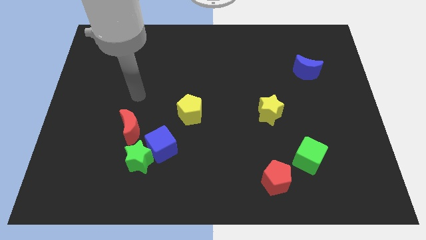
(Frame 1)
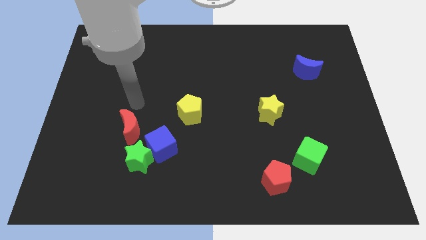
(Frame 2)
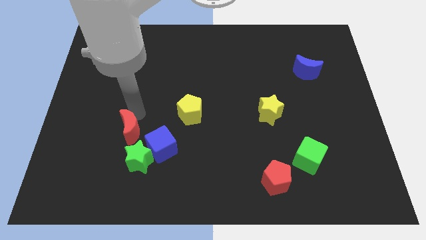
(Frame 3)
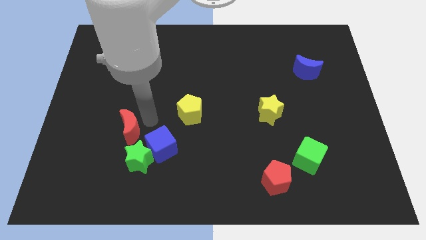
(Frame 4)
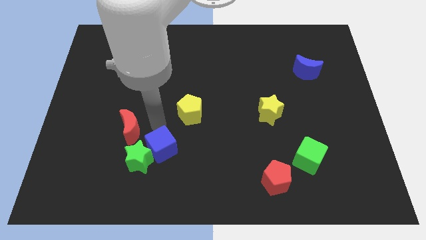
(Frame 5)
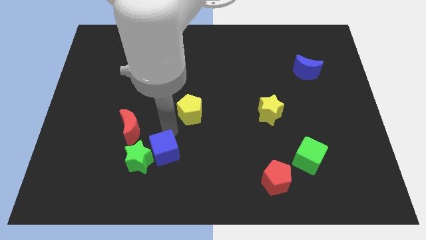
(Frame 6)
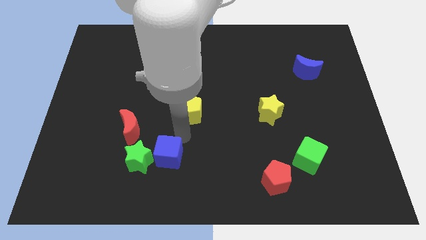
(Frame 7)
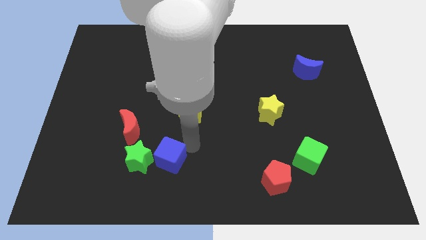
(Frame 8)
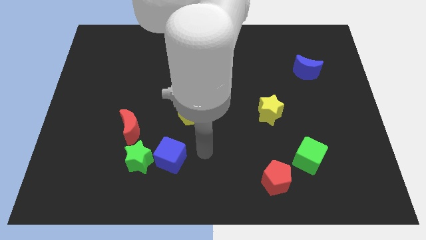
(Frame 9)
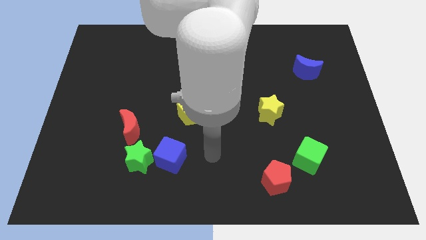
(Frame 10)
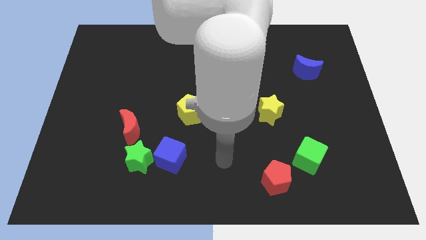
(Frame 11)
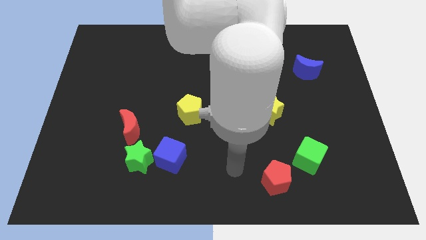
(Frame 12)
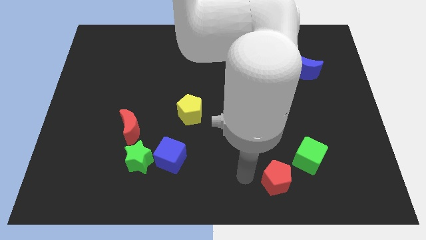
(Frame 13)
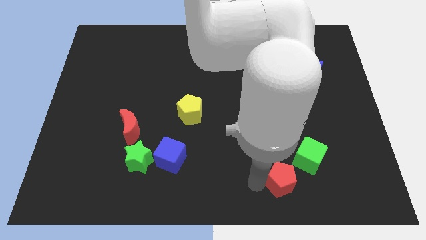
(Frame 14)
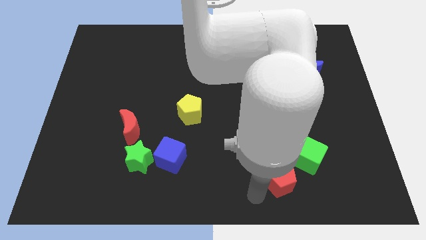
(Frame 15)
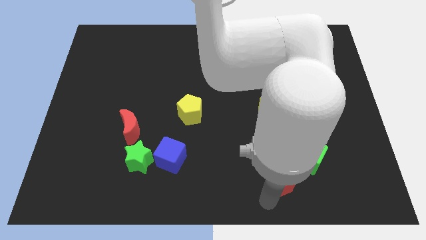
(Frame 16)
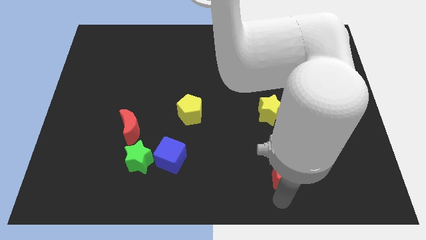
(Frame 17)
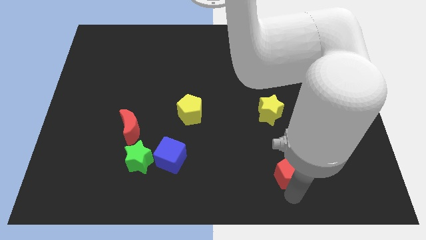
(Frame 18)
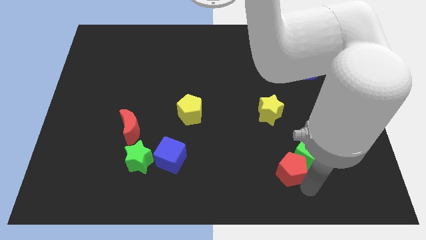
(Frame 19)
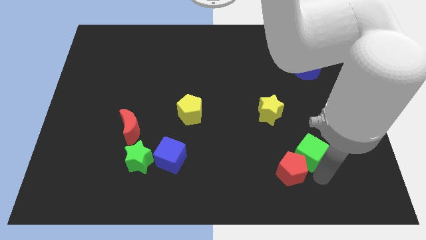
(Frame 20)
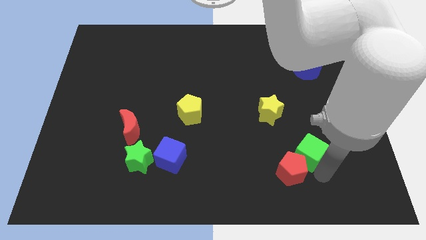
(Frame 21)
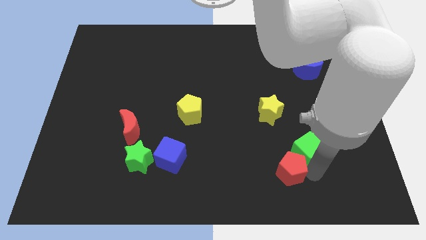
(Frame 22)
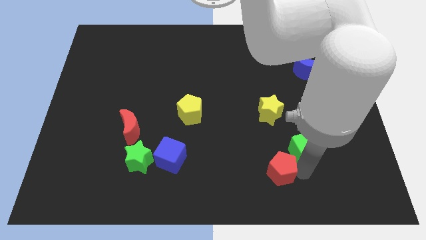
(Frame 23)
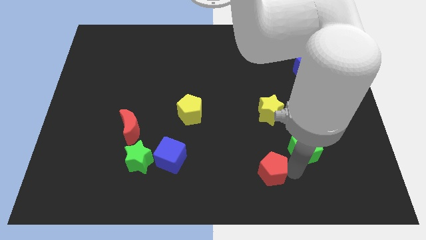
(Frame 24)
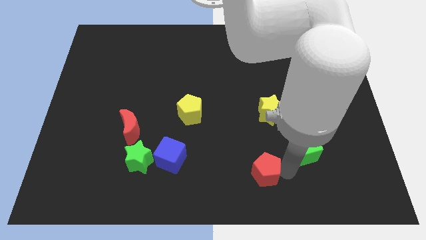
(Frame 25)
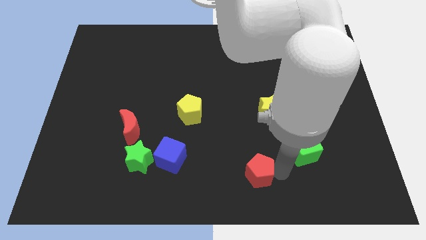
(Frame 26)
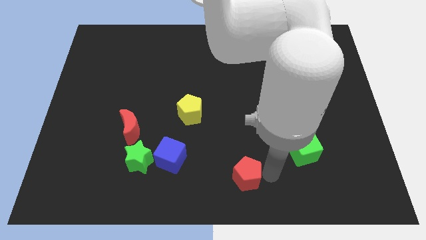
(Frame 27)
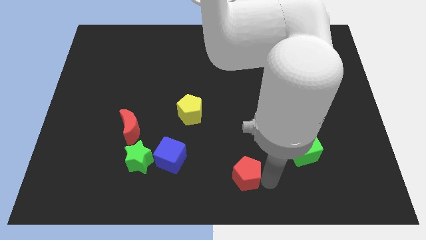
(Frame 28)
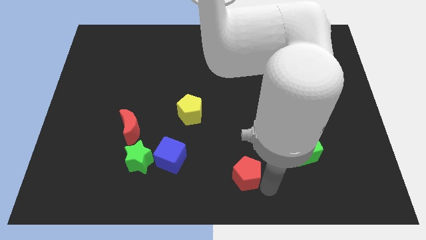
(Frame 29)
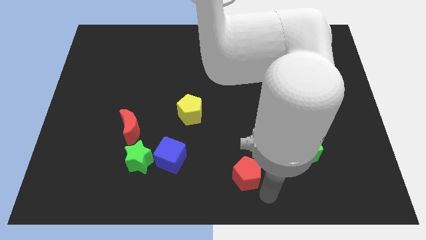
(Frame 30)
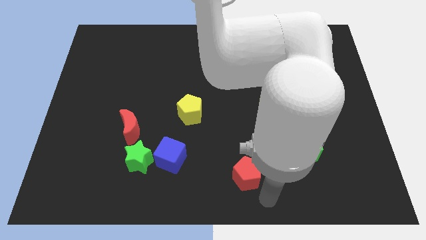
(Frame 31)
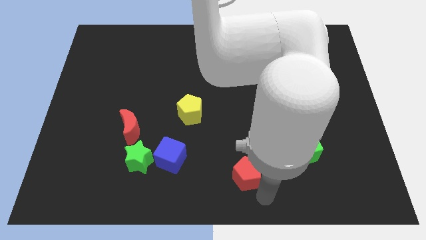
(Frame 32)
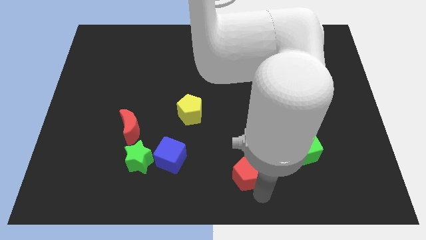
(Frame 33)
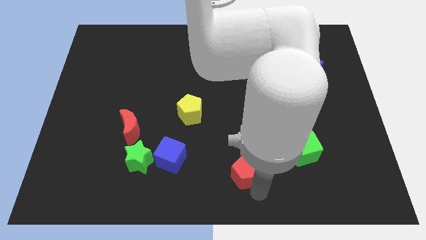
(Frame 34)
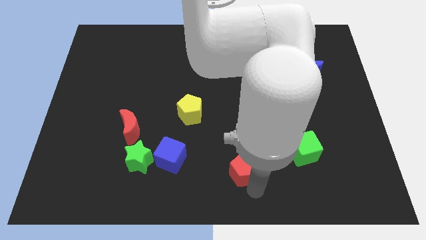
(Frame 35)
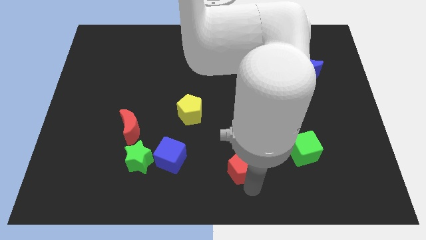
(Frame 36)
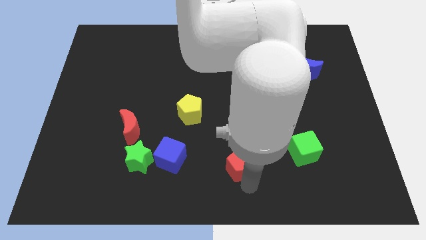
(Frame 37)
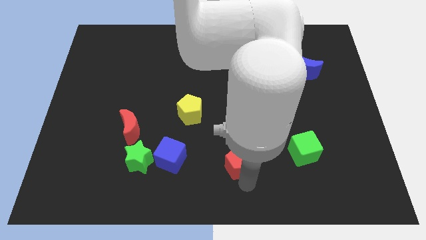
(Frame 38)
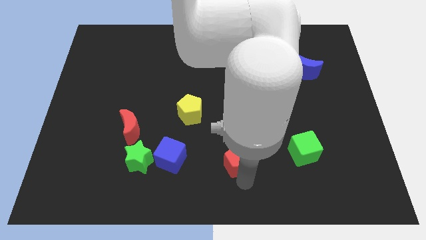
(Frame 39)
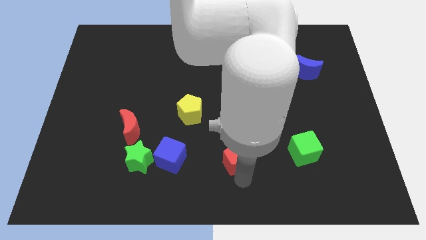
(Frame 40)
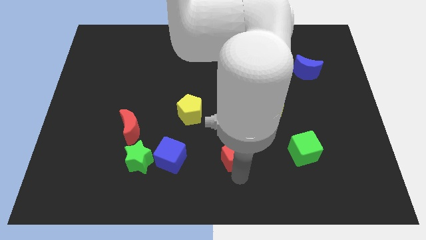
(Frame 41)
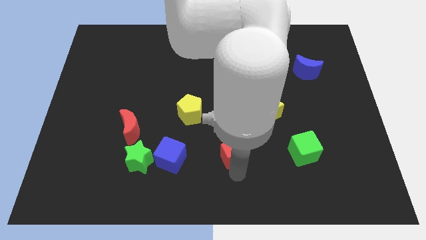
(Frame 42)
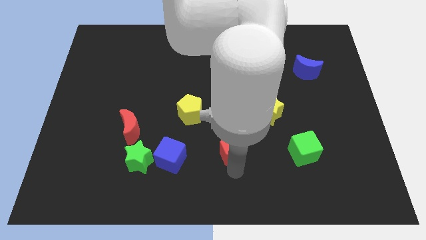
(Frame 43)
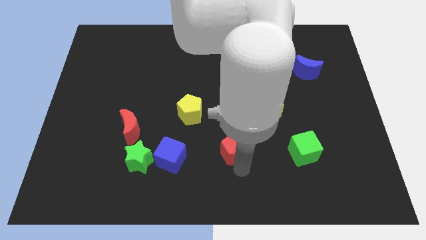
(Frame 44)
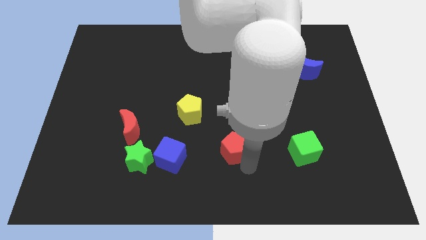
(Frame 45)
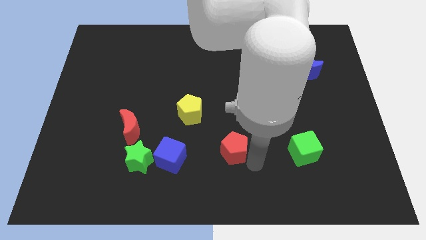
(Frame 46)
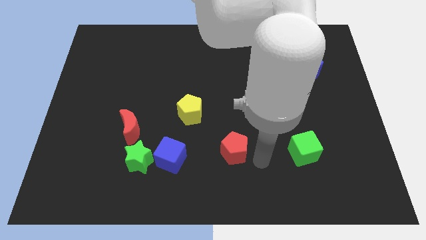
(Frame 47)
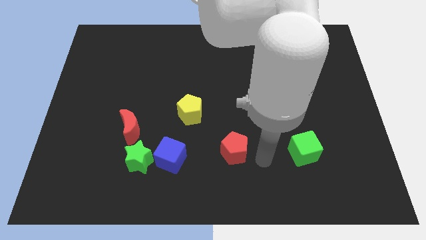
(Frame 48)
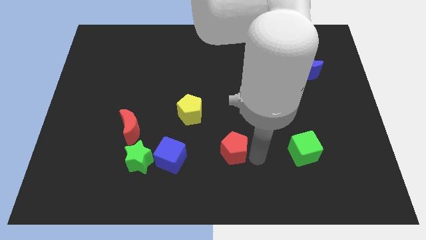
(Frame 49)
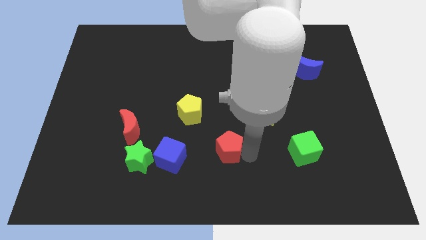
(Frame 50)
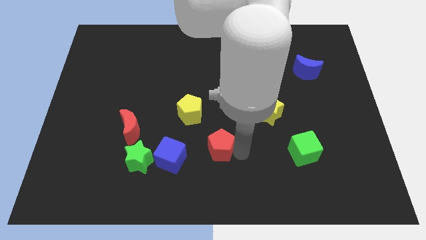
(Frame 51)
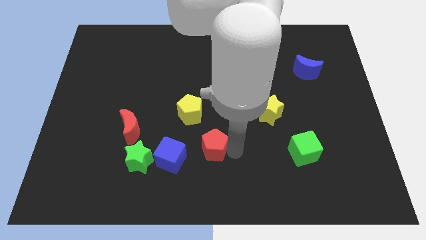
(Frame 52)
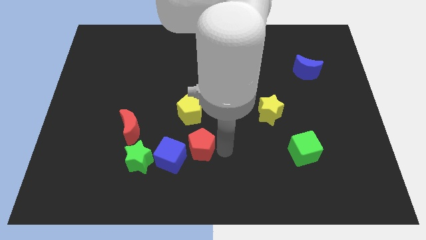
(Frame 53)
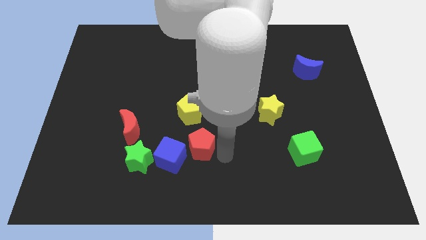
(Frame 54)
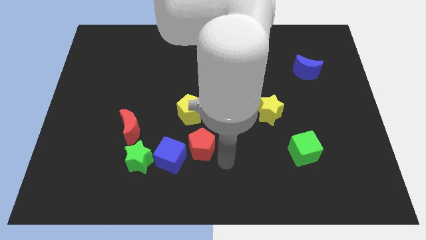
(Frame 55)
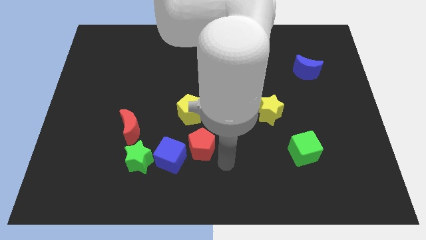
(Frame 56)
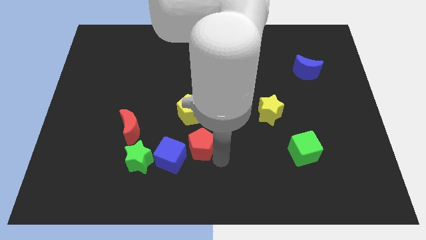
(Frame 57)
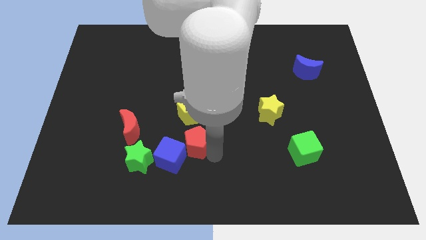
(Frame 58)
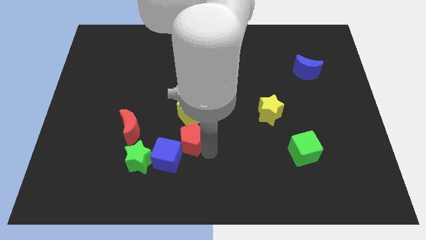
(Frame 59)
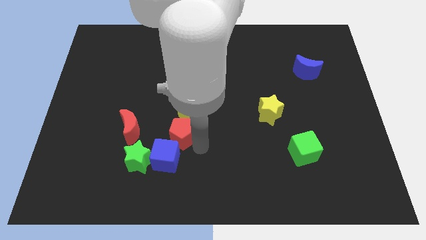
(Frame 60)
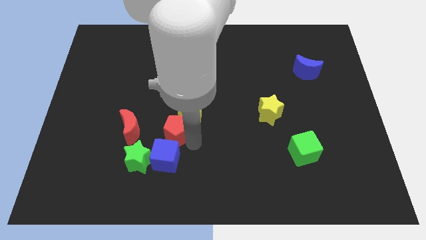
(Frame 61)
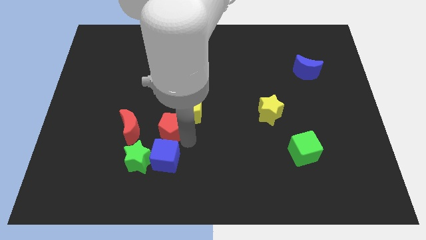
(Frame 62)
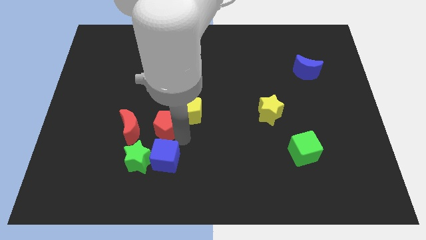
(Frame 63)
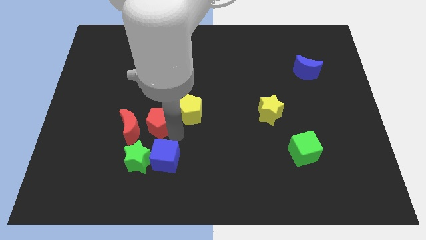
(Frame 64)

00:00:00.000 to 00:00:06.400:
push the red pentagon to the top right side of the red moon

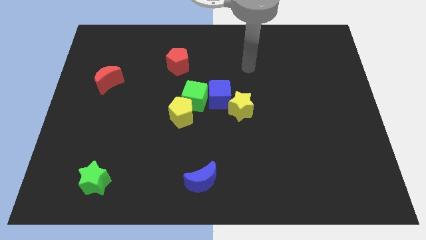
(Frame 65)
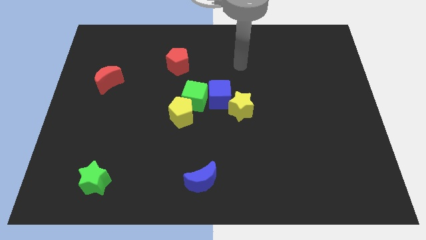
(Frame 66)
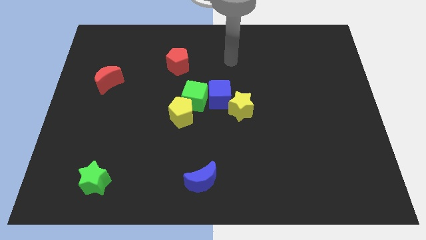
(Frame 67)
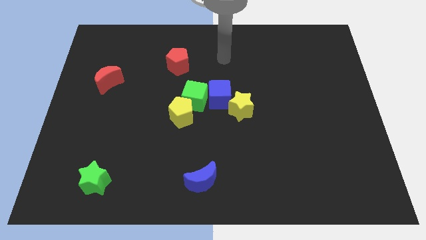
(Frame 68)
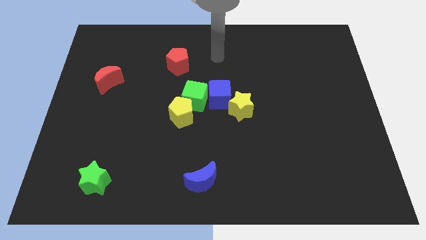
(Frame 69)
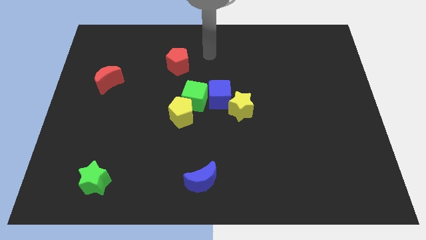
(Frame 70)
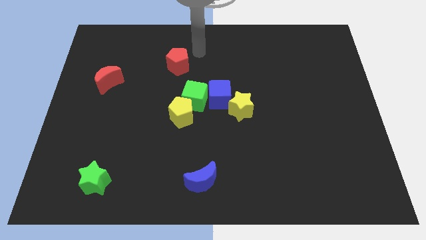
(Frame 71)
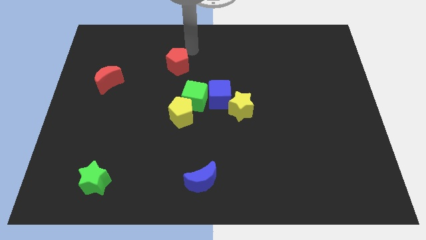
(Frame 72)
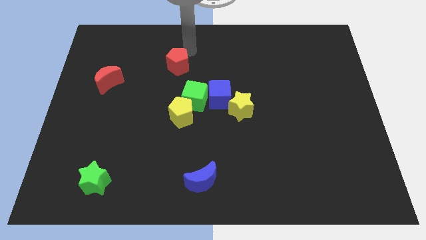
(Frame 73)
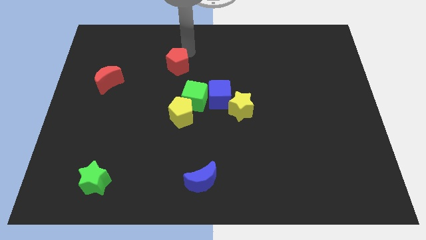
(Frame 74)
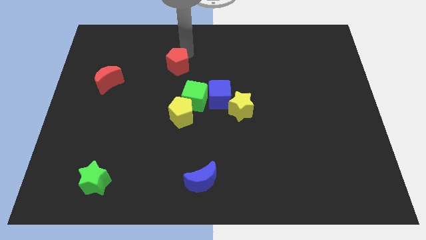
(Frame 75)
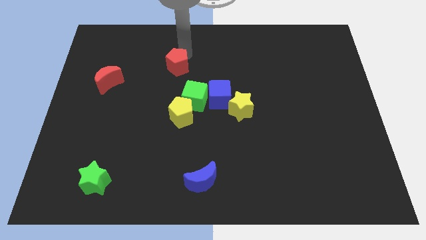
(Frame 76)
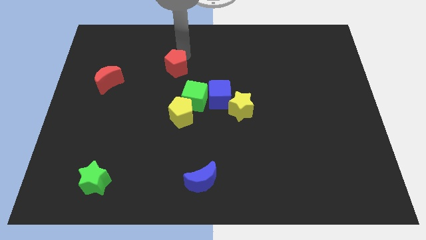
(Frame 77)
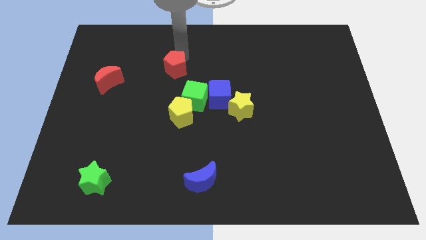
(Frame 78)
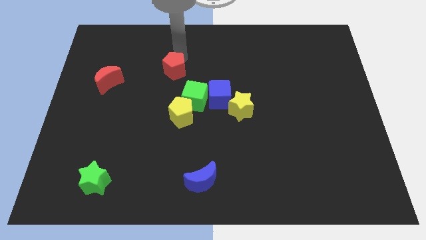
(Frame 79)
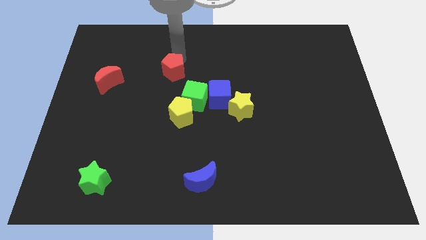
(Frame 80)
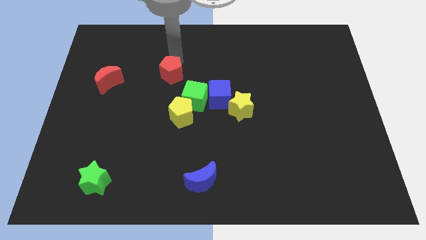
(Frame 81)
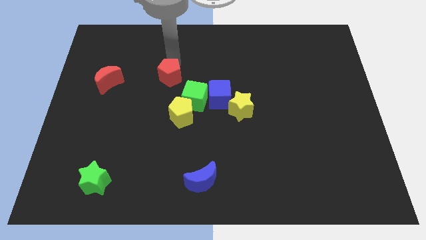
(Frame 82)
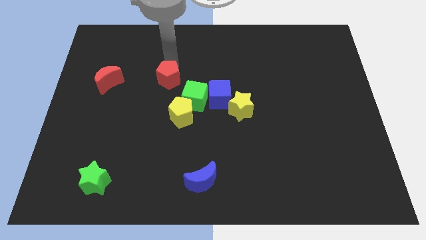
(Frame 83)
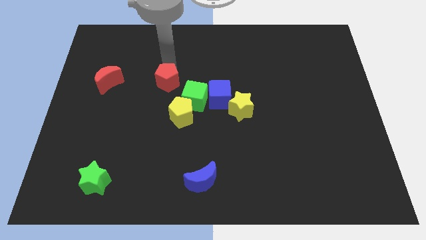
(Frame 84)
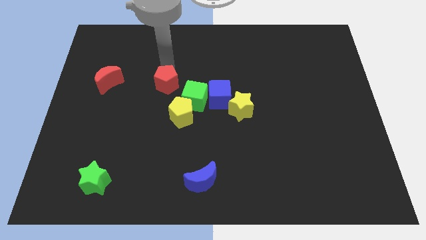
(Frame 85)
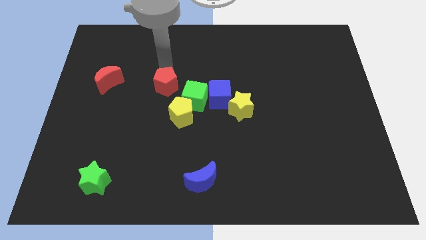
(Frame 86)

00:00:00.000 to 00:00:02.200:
move the red pentagon to the left side of the green cube
